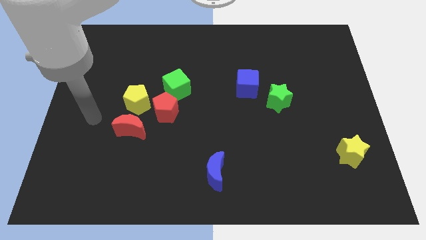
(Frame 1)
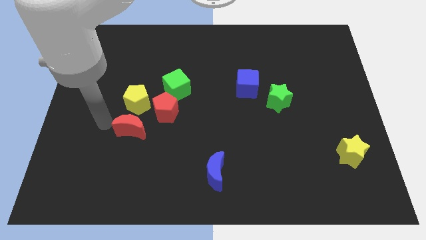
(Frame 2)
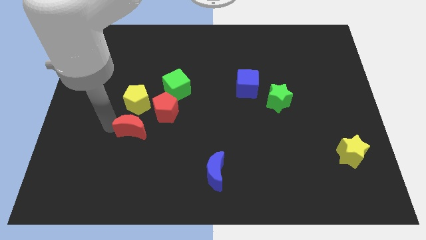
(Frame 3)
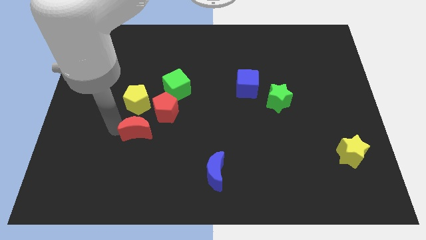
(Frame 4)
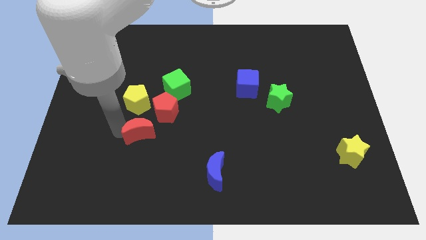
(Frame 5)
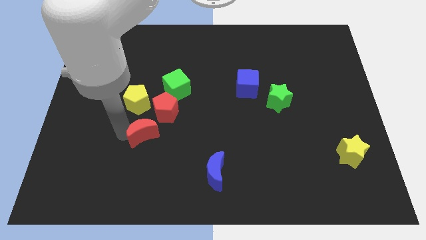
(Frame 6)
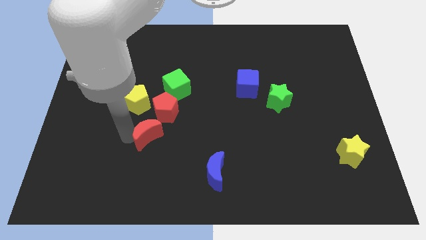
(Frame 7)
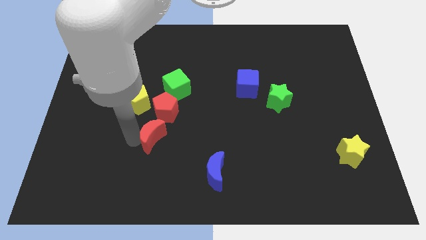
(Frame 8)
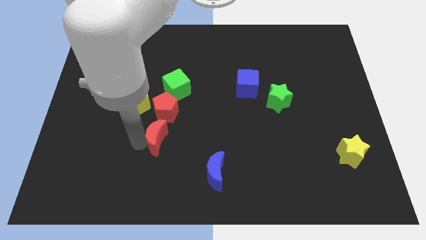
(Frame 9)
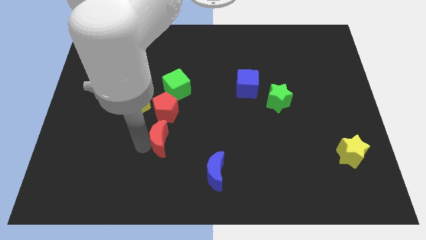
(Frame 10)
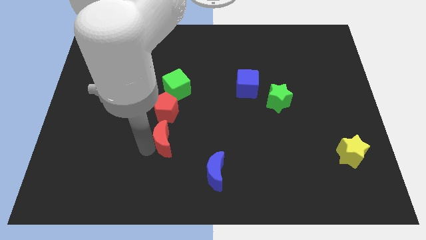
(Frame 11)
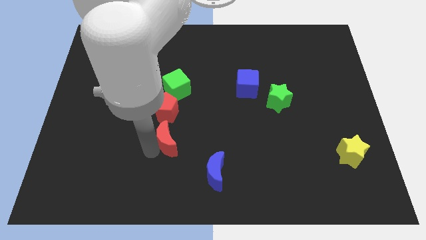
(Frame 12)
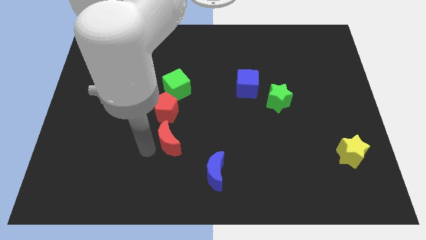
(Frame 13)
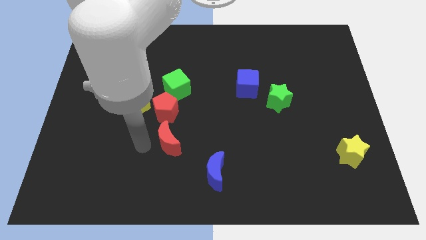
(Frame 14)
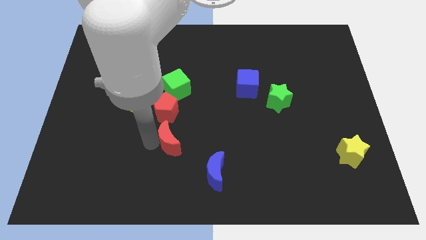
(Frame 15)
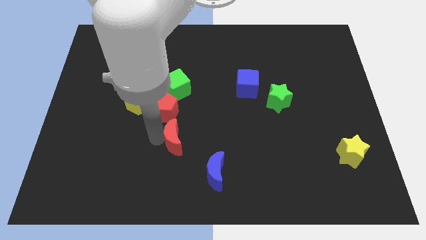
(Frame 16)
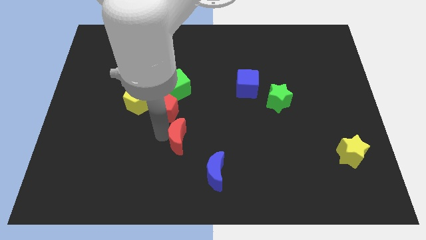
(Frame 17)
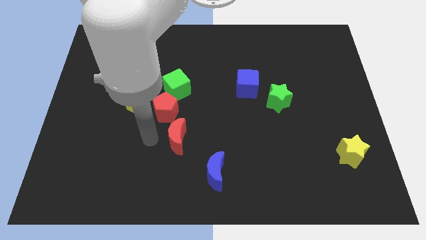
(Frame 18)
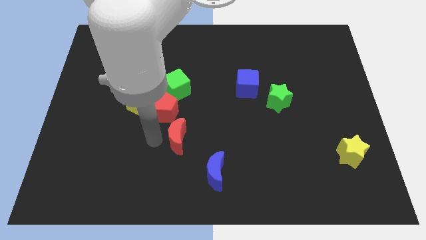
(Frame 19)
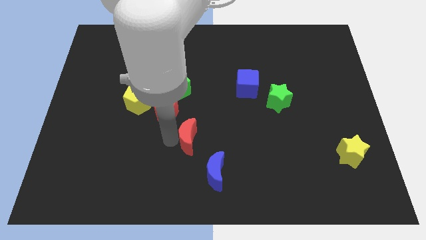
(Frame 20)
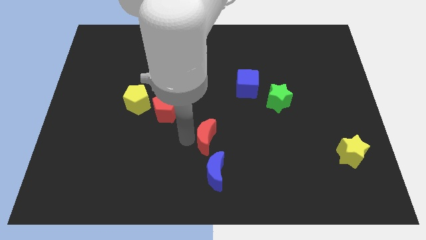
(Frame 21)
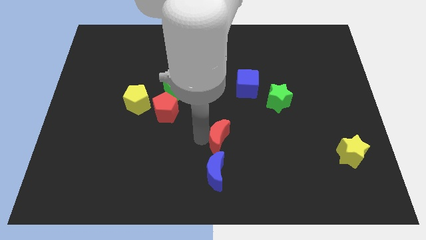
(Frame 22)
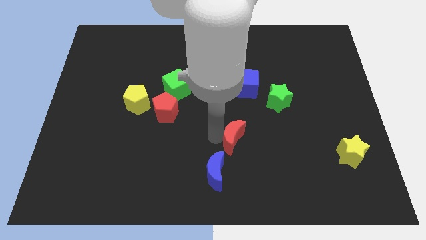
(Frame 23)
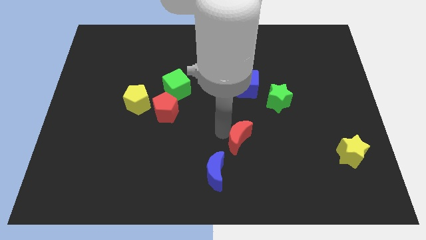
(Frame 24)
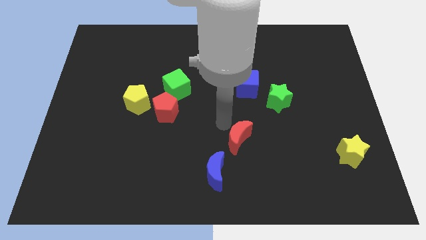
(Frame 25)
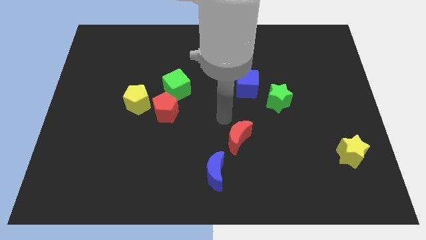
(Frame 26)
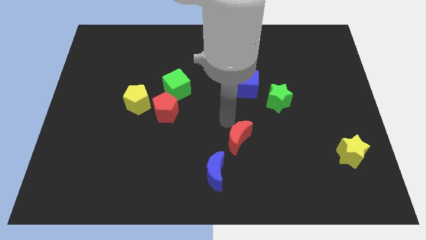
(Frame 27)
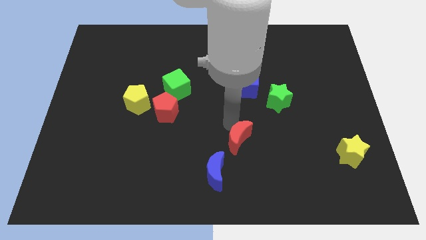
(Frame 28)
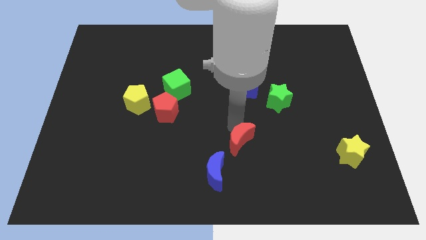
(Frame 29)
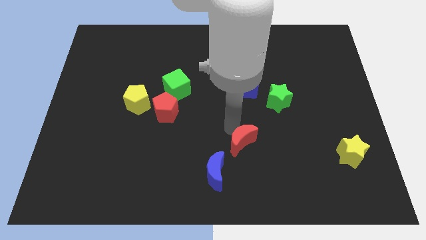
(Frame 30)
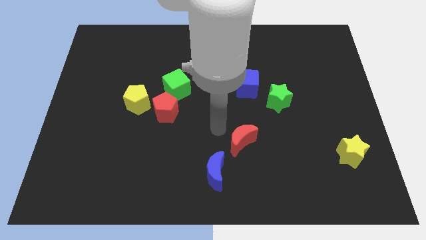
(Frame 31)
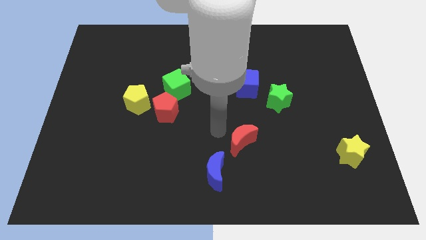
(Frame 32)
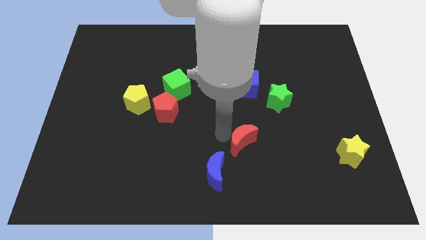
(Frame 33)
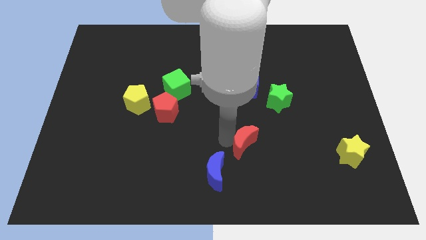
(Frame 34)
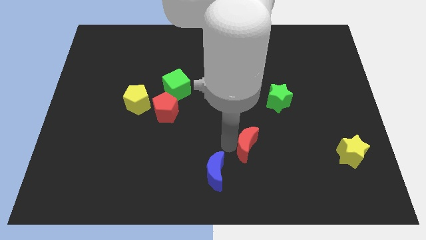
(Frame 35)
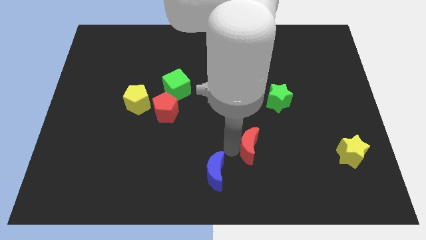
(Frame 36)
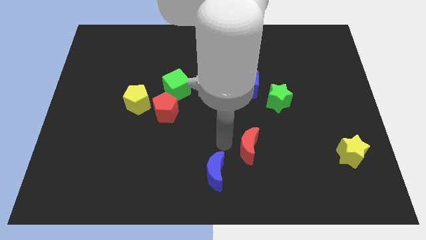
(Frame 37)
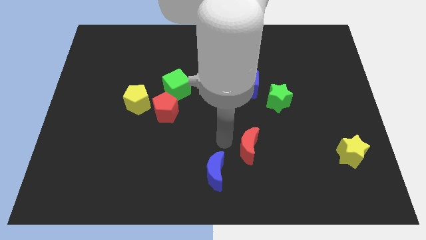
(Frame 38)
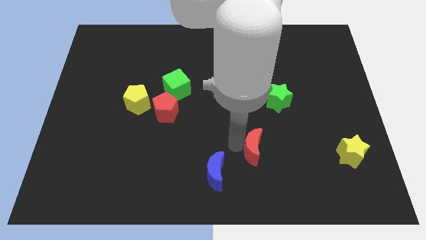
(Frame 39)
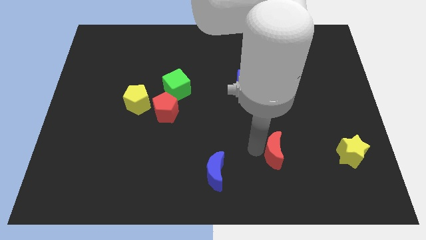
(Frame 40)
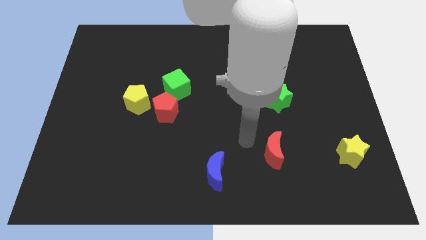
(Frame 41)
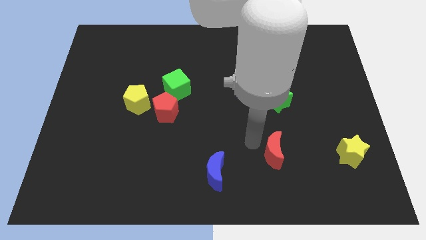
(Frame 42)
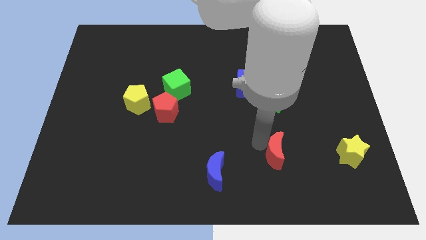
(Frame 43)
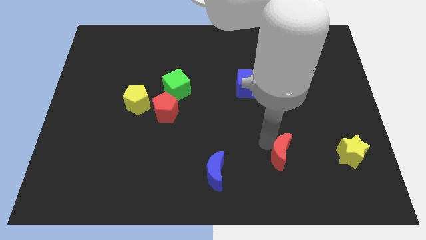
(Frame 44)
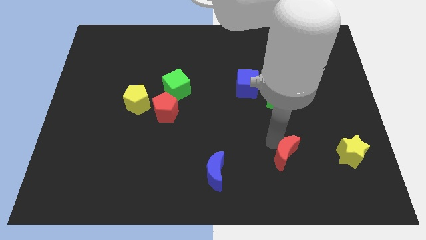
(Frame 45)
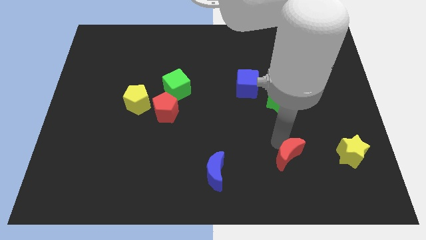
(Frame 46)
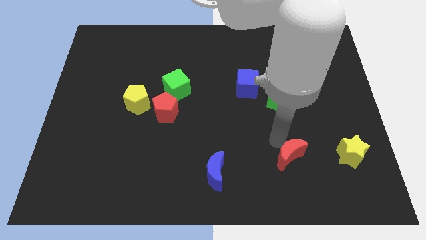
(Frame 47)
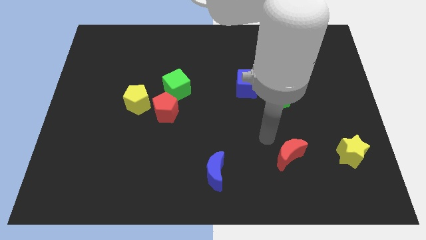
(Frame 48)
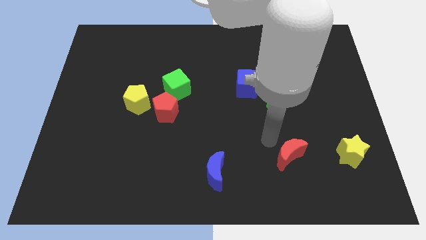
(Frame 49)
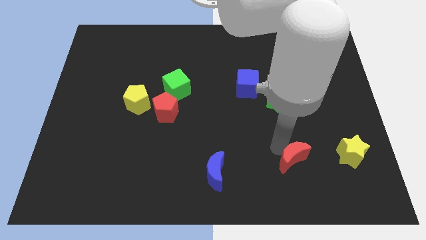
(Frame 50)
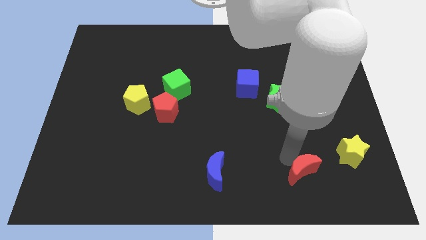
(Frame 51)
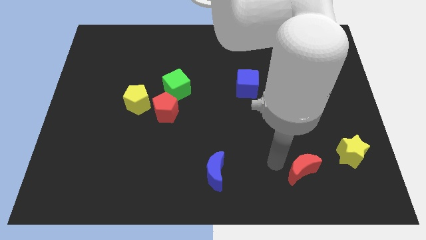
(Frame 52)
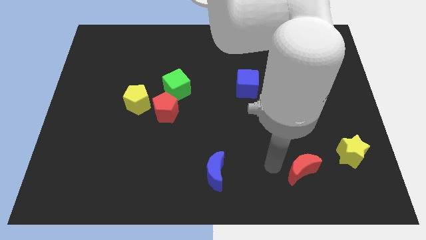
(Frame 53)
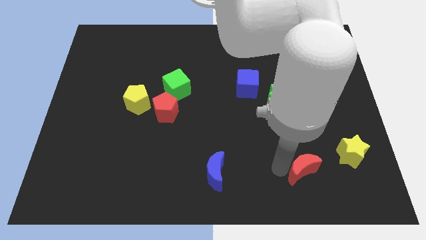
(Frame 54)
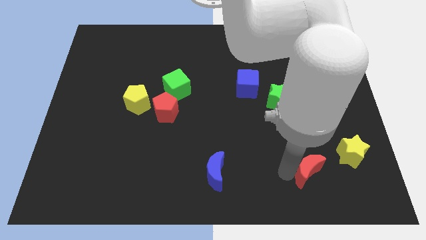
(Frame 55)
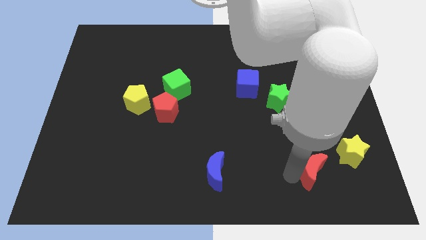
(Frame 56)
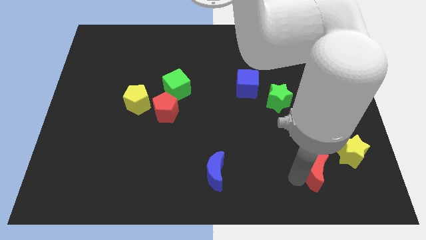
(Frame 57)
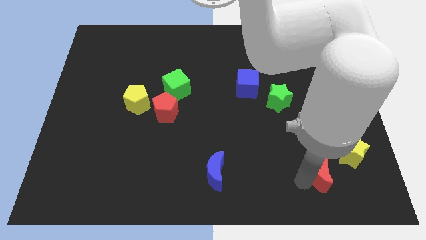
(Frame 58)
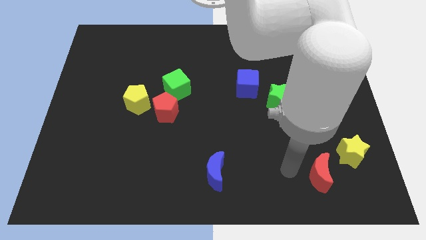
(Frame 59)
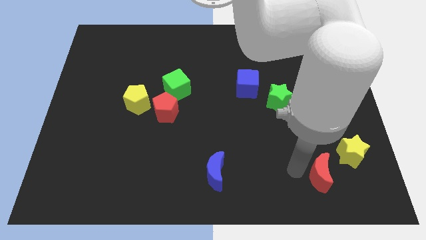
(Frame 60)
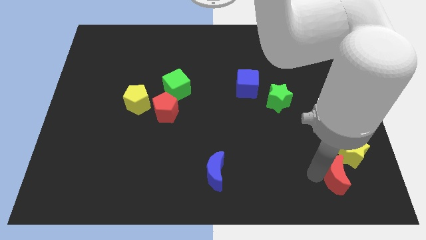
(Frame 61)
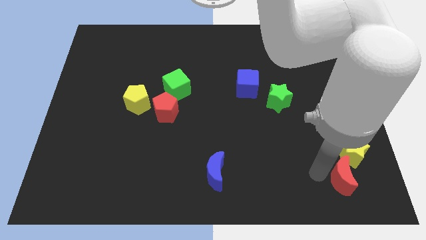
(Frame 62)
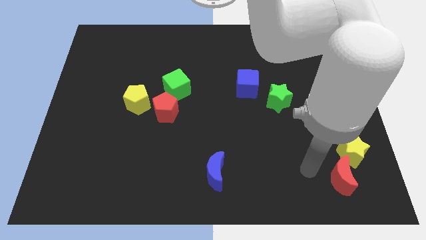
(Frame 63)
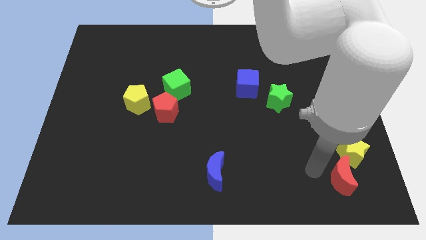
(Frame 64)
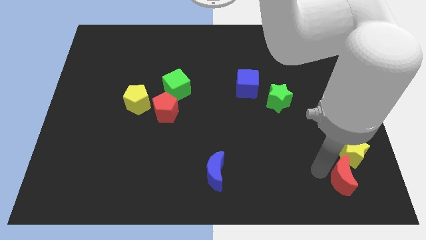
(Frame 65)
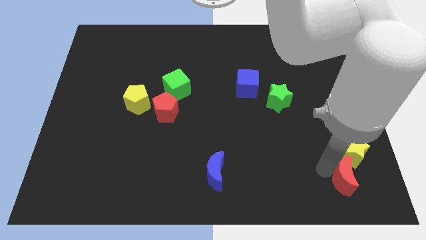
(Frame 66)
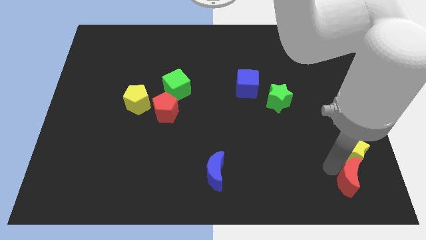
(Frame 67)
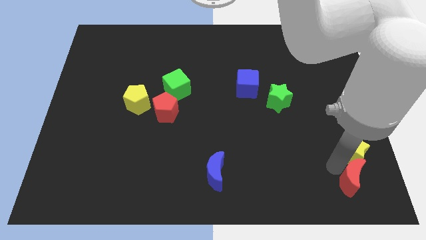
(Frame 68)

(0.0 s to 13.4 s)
push the red moon to the bottom right of the board
